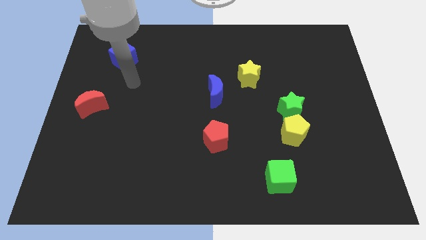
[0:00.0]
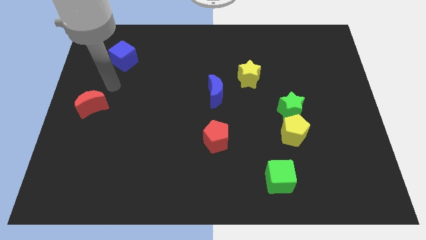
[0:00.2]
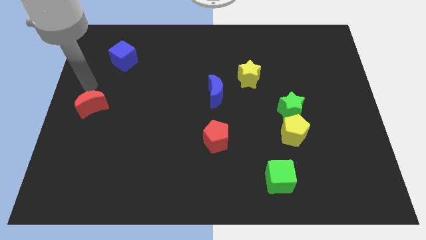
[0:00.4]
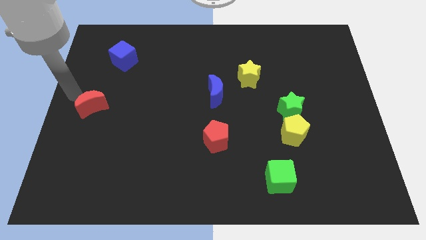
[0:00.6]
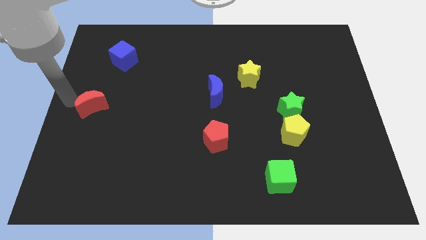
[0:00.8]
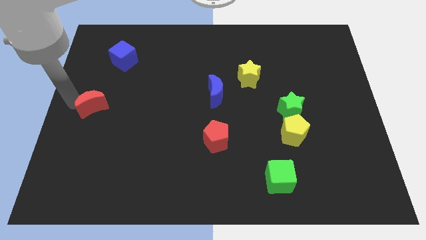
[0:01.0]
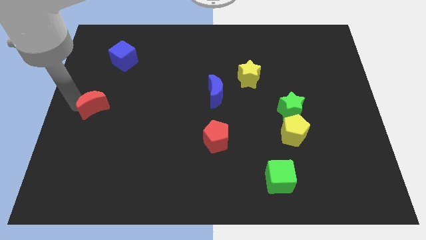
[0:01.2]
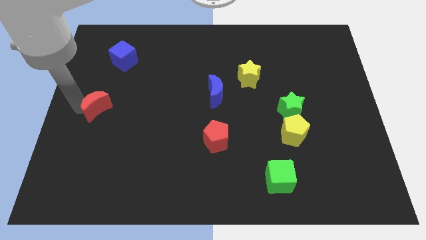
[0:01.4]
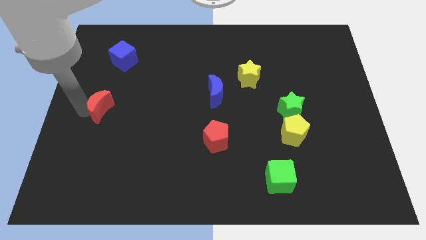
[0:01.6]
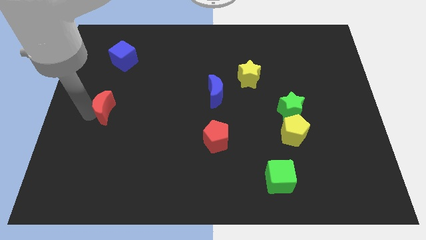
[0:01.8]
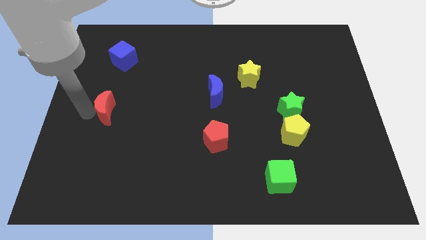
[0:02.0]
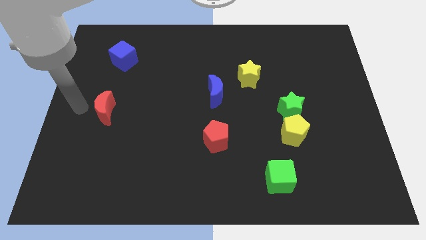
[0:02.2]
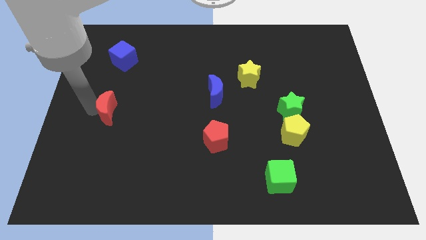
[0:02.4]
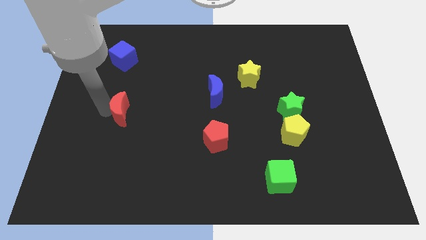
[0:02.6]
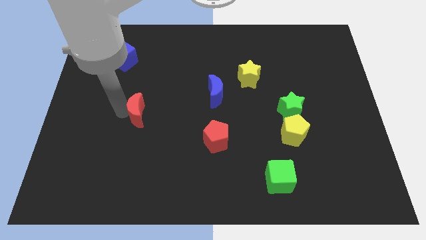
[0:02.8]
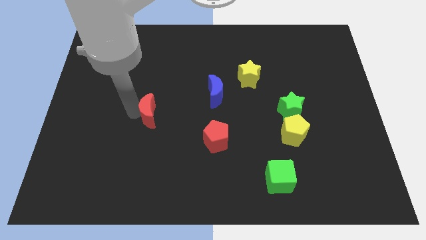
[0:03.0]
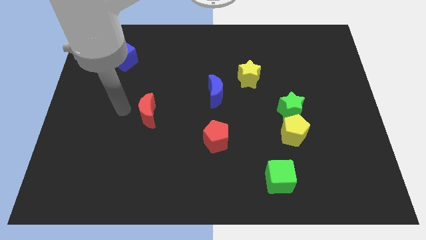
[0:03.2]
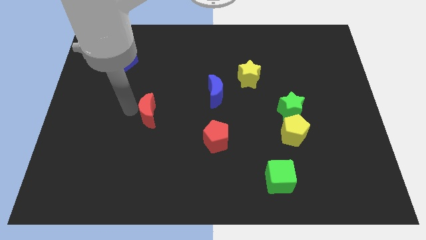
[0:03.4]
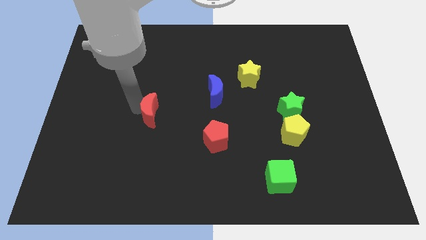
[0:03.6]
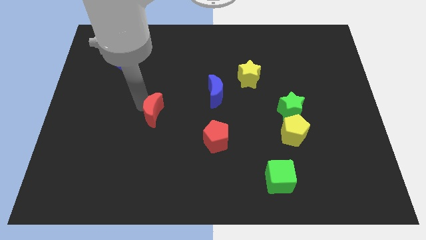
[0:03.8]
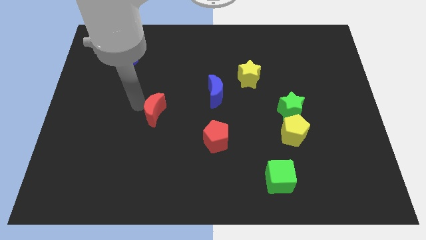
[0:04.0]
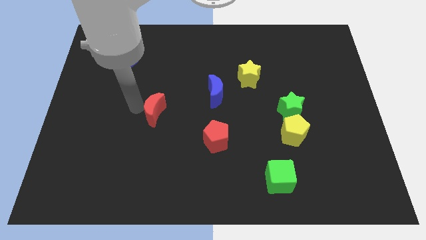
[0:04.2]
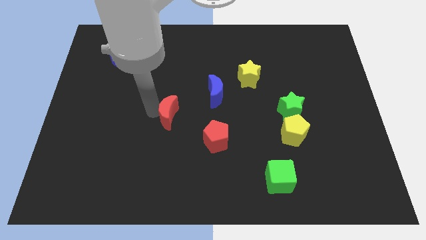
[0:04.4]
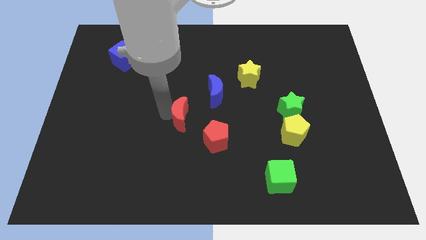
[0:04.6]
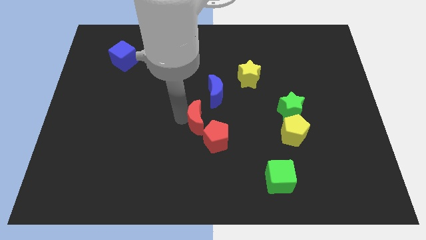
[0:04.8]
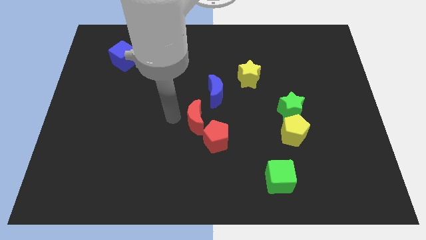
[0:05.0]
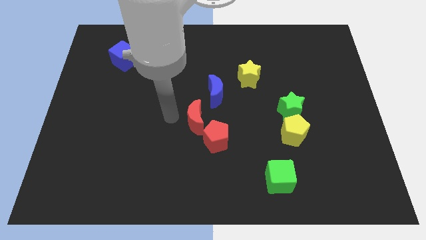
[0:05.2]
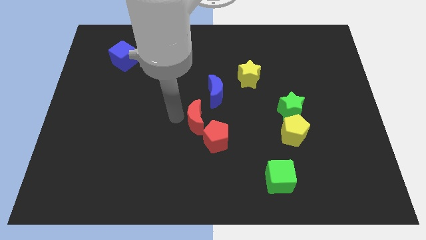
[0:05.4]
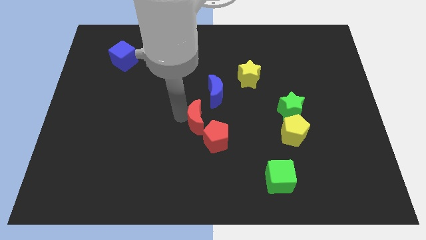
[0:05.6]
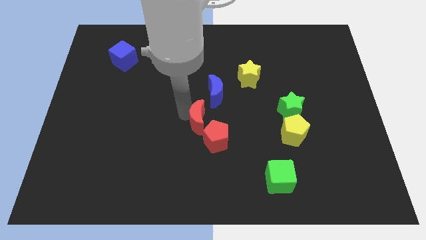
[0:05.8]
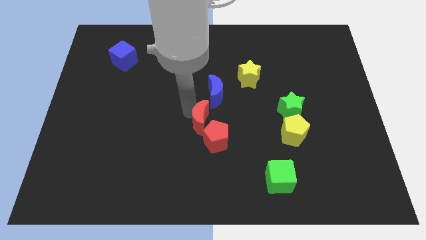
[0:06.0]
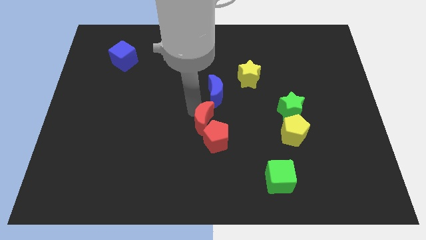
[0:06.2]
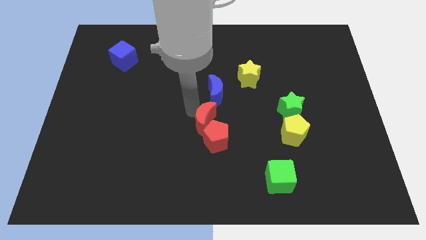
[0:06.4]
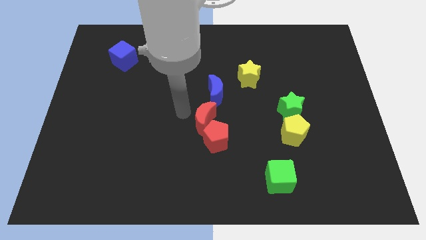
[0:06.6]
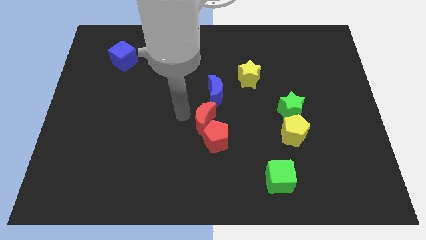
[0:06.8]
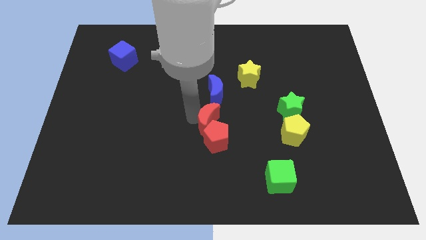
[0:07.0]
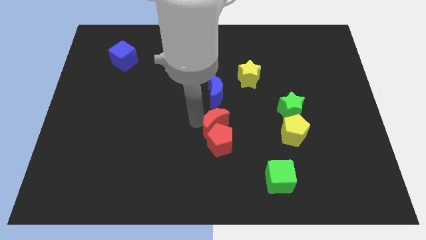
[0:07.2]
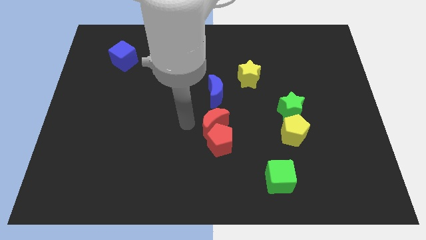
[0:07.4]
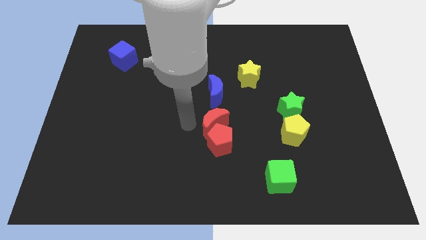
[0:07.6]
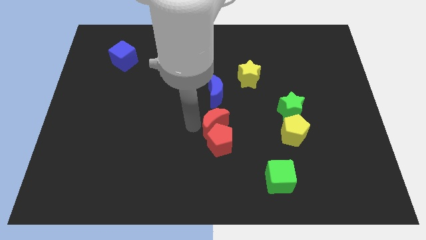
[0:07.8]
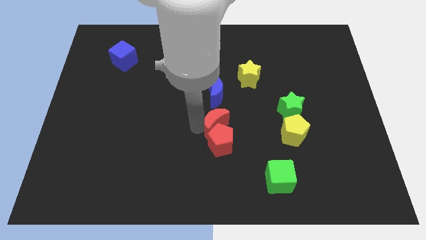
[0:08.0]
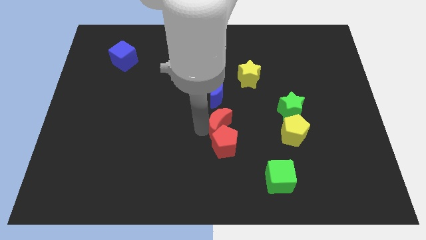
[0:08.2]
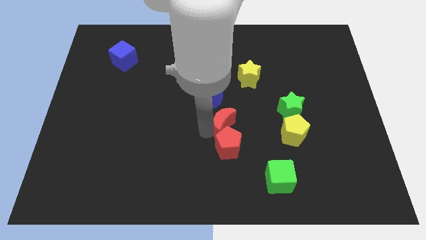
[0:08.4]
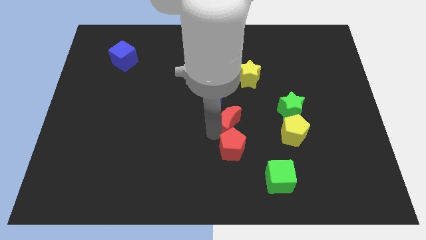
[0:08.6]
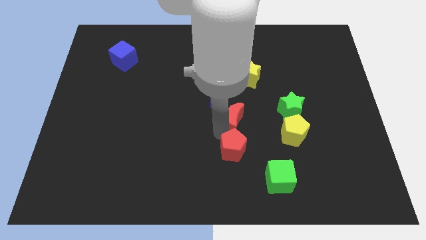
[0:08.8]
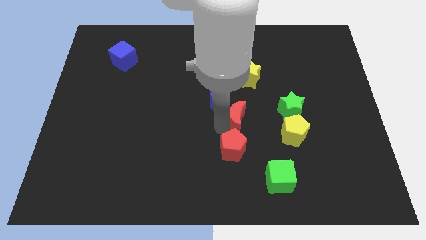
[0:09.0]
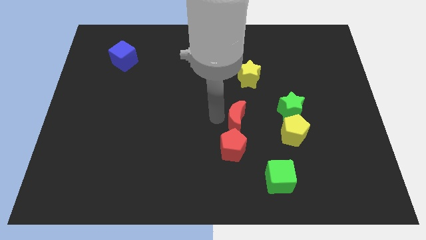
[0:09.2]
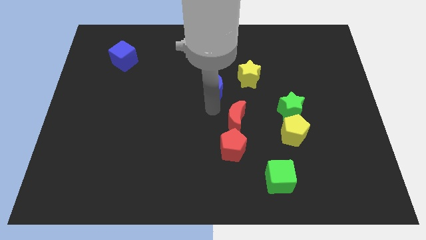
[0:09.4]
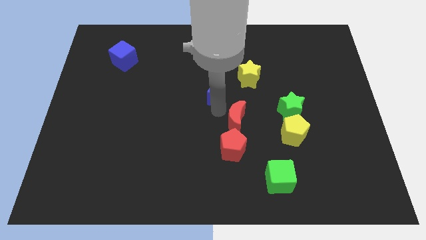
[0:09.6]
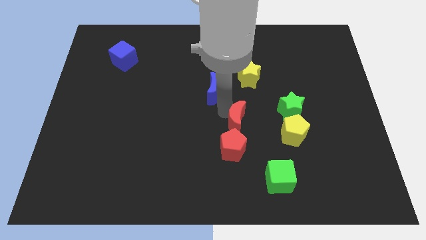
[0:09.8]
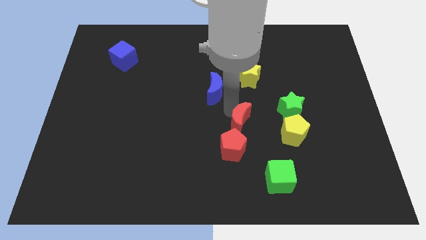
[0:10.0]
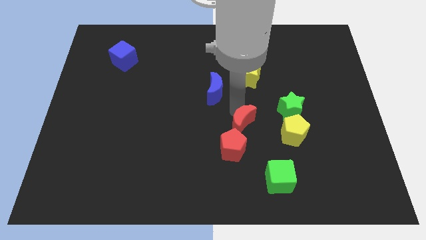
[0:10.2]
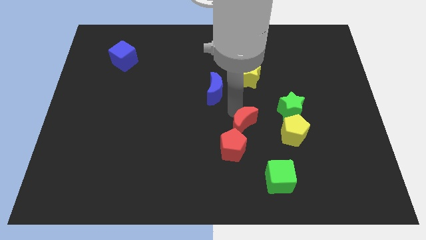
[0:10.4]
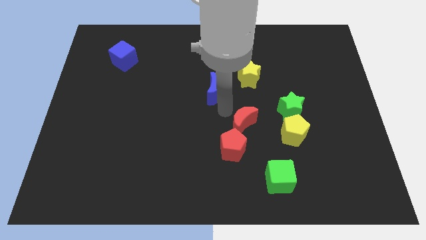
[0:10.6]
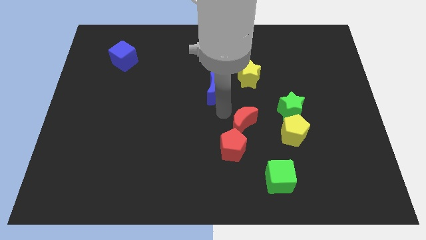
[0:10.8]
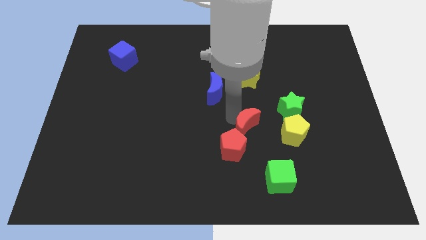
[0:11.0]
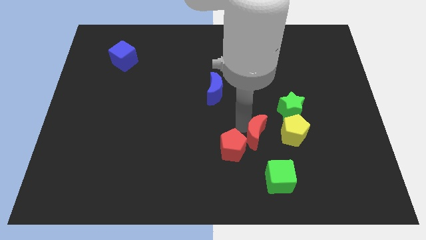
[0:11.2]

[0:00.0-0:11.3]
put the red moon to the top side of the green cube

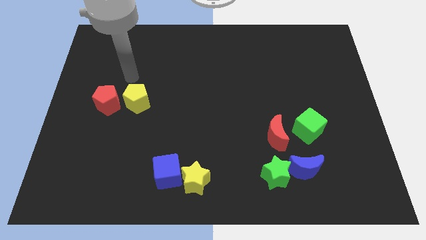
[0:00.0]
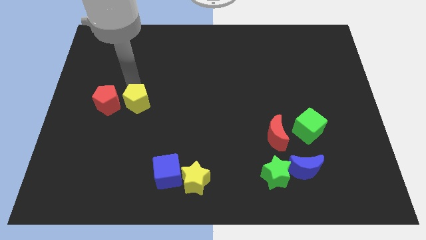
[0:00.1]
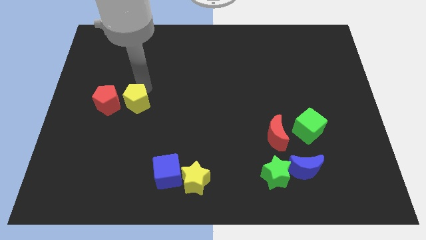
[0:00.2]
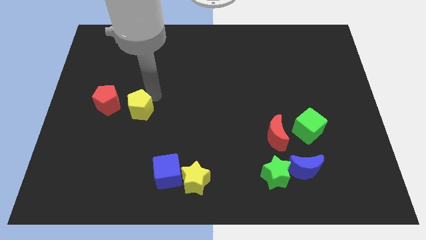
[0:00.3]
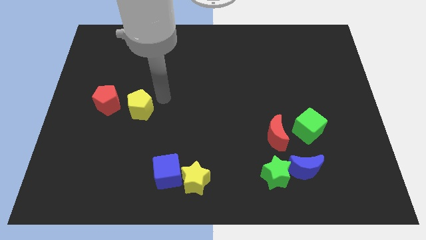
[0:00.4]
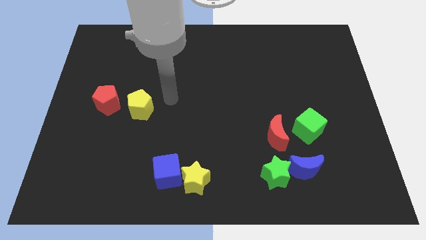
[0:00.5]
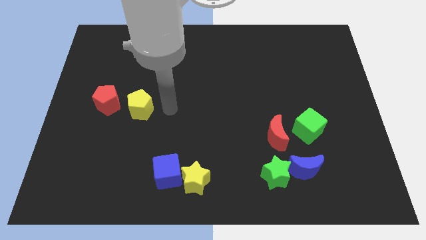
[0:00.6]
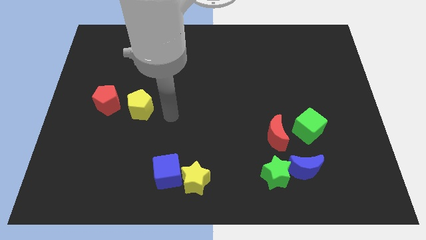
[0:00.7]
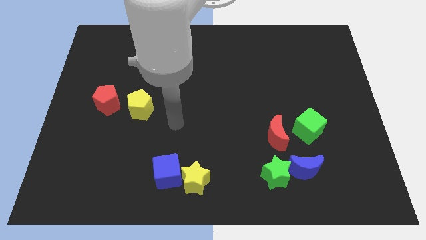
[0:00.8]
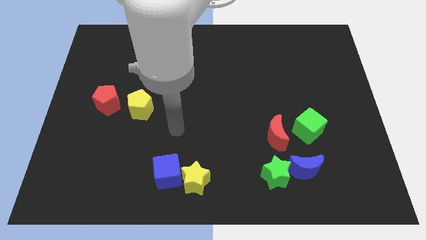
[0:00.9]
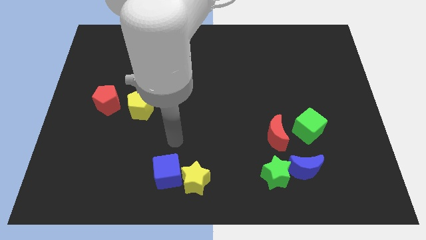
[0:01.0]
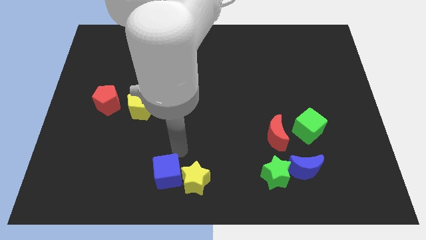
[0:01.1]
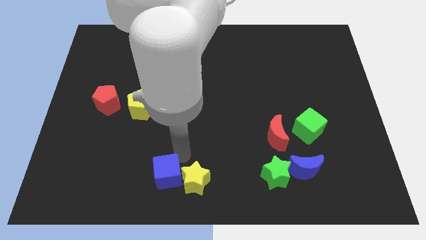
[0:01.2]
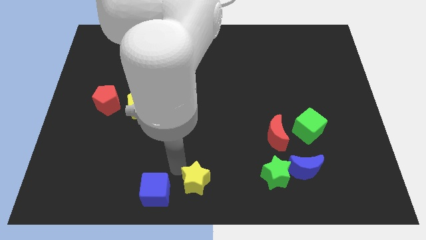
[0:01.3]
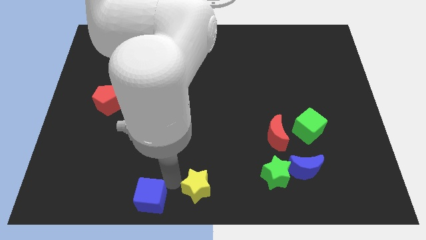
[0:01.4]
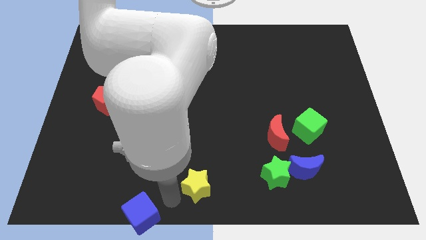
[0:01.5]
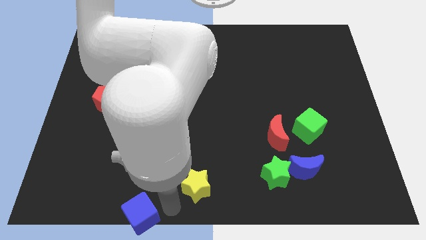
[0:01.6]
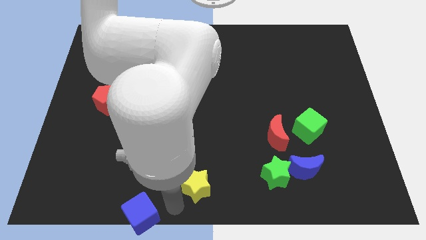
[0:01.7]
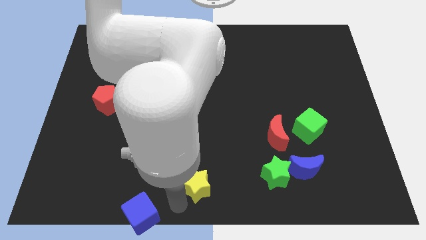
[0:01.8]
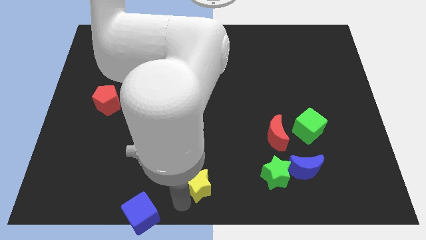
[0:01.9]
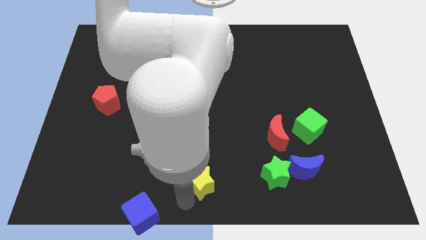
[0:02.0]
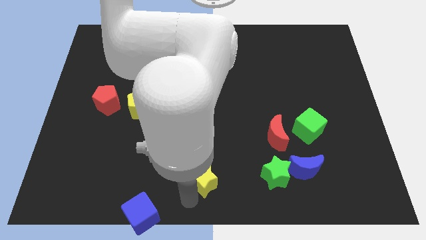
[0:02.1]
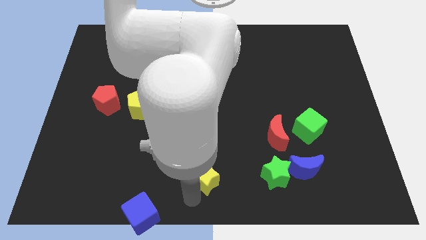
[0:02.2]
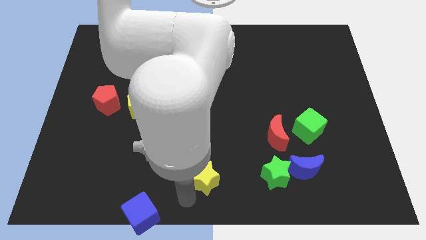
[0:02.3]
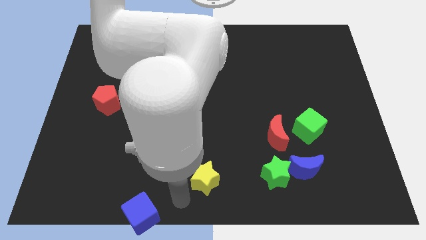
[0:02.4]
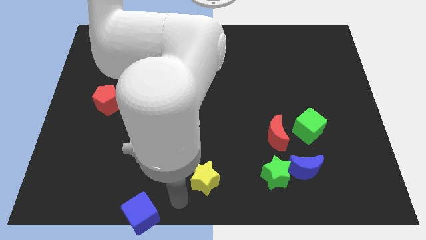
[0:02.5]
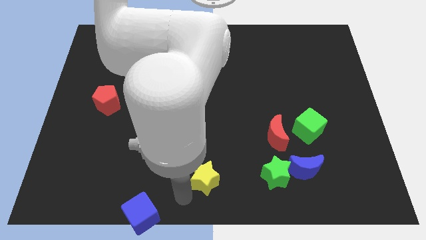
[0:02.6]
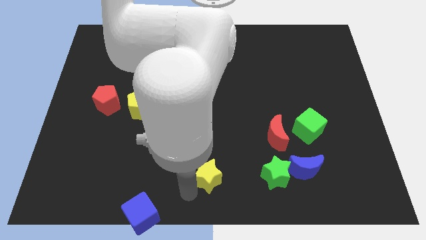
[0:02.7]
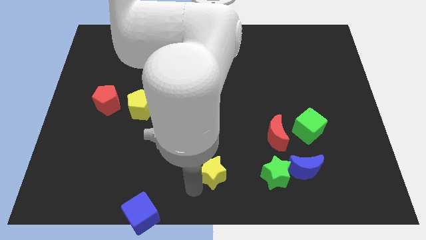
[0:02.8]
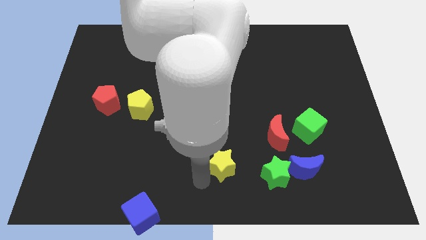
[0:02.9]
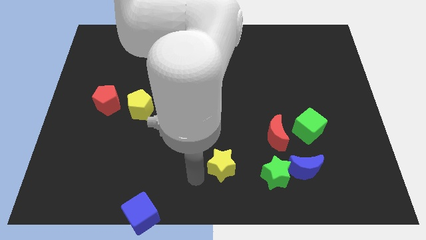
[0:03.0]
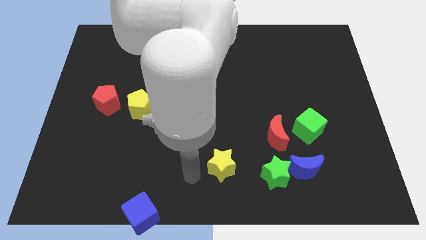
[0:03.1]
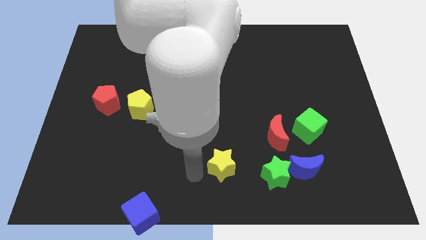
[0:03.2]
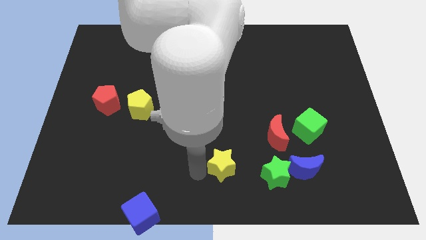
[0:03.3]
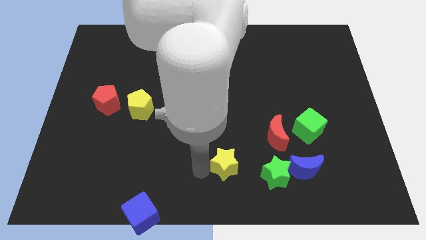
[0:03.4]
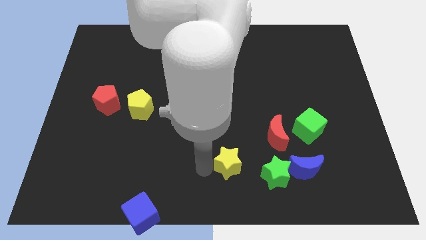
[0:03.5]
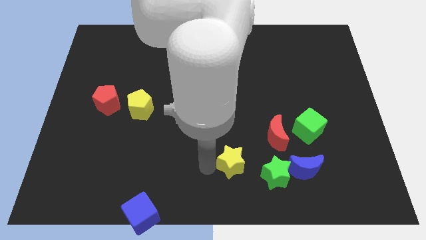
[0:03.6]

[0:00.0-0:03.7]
put the yellow star to the bottom left of the red moon
